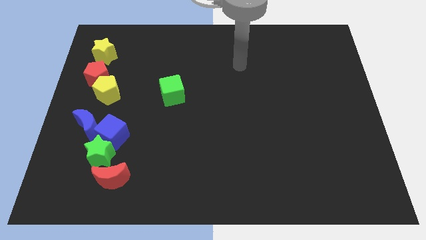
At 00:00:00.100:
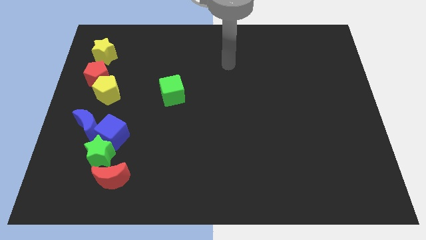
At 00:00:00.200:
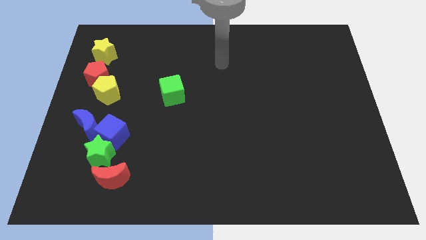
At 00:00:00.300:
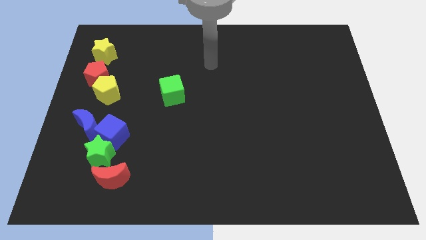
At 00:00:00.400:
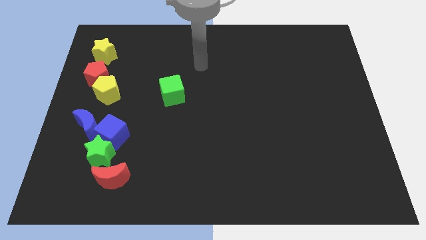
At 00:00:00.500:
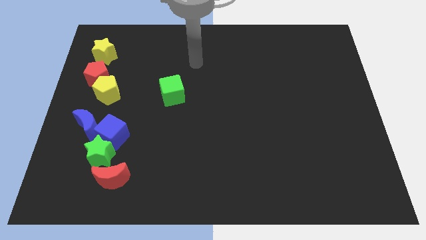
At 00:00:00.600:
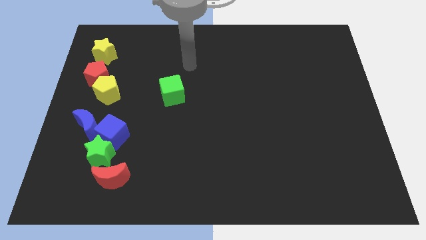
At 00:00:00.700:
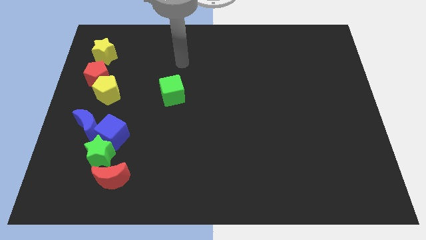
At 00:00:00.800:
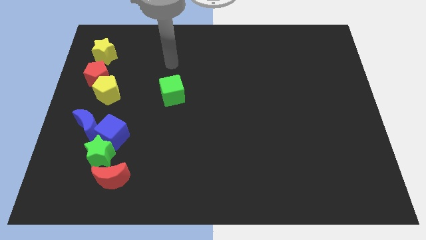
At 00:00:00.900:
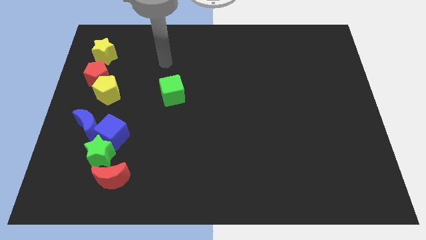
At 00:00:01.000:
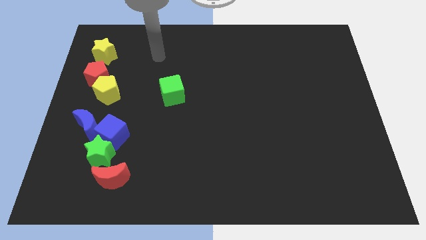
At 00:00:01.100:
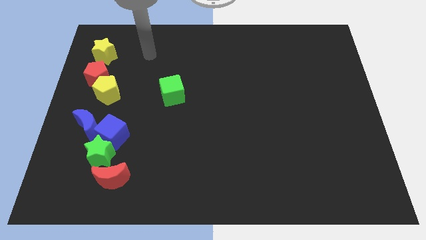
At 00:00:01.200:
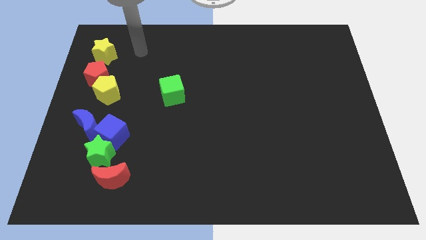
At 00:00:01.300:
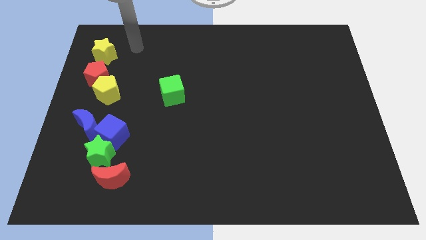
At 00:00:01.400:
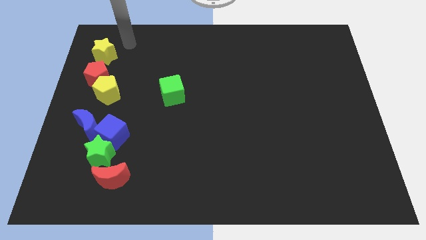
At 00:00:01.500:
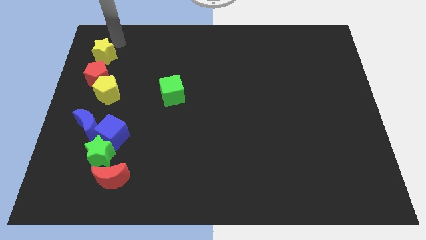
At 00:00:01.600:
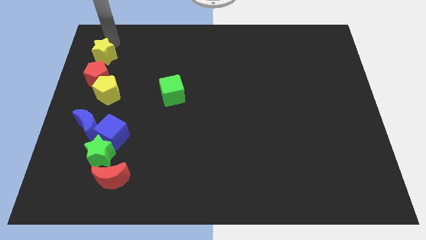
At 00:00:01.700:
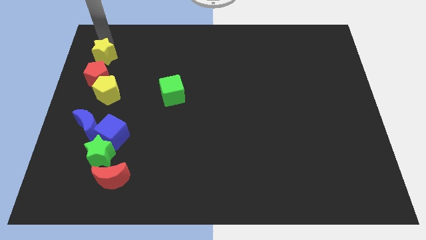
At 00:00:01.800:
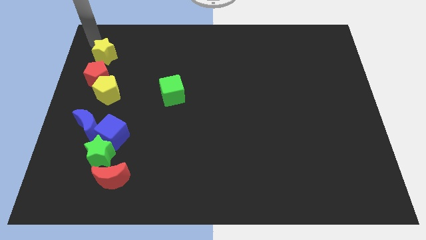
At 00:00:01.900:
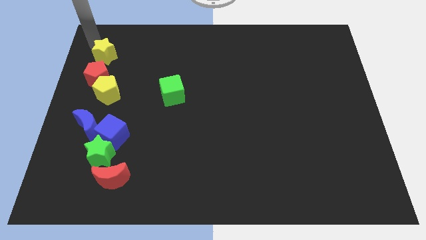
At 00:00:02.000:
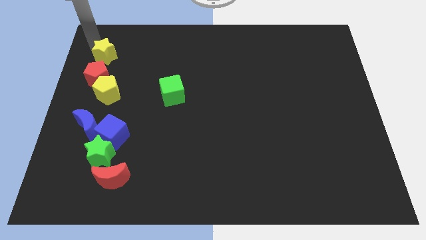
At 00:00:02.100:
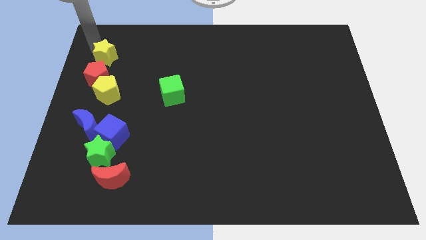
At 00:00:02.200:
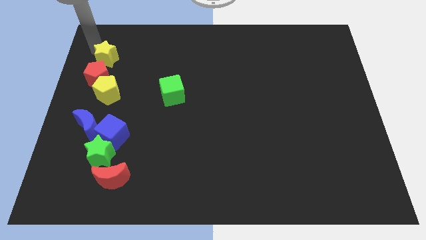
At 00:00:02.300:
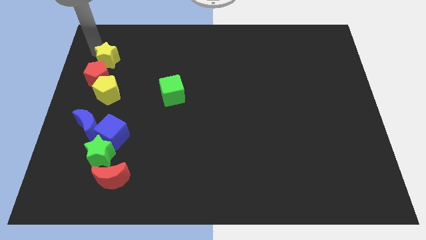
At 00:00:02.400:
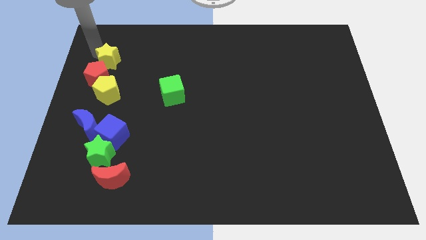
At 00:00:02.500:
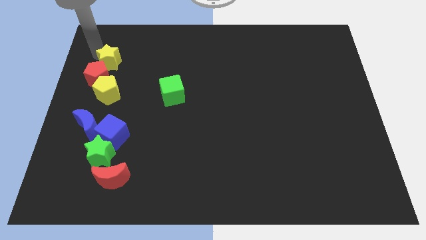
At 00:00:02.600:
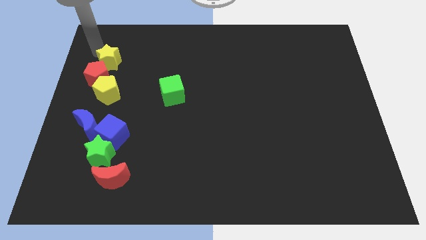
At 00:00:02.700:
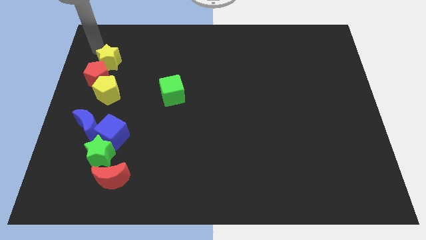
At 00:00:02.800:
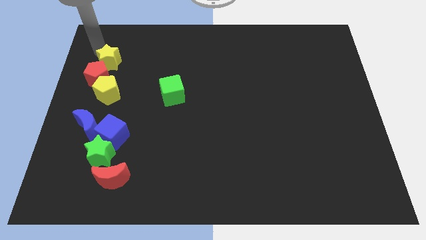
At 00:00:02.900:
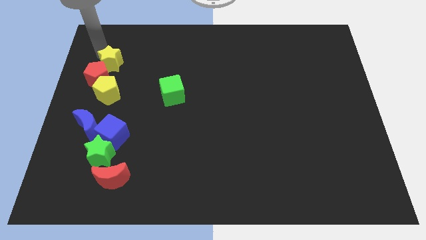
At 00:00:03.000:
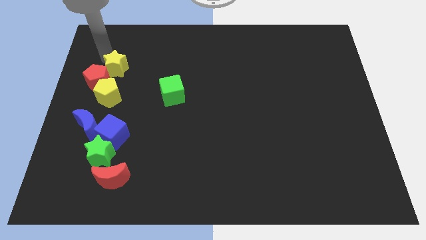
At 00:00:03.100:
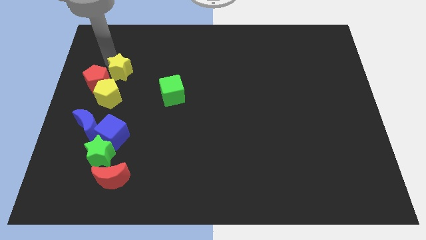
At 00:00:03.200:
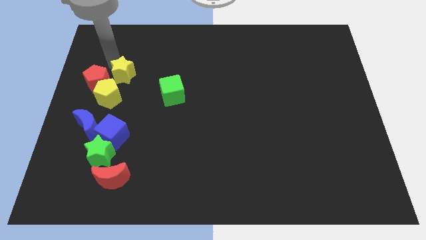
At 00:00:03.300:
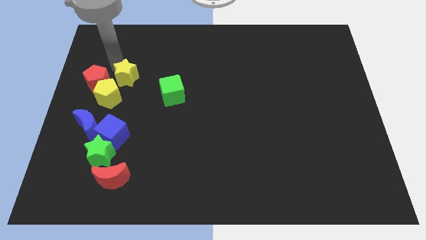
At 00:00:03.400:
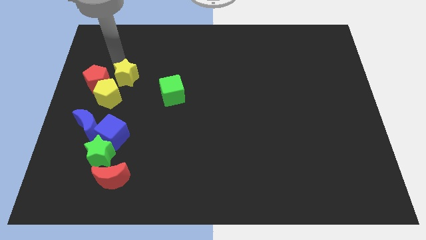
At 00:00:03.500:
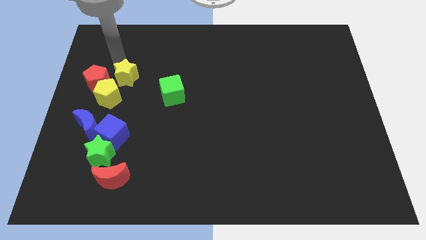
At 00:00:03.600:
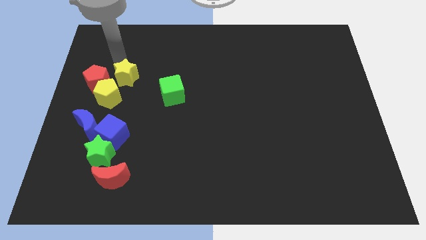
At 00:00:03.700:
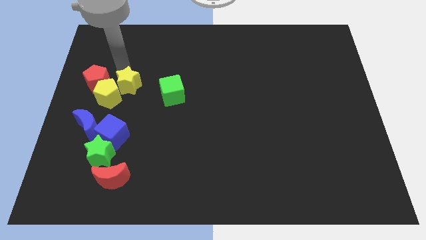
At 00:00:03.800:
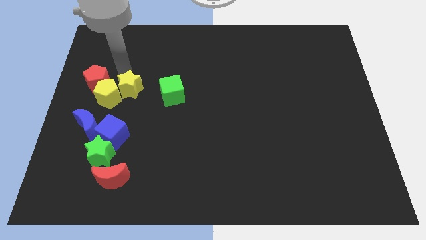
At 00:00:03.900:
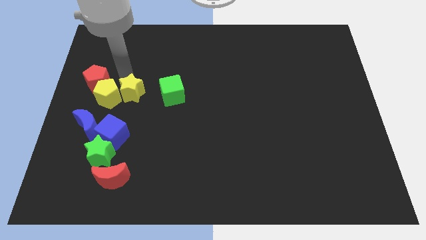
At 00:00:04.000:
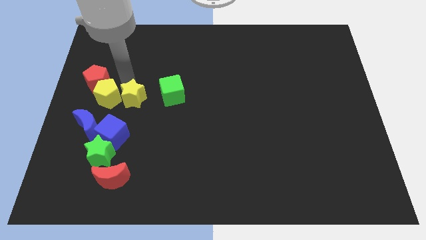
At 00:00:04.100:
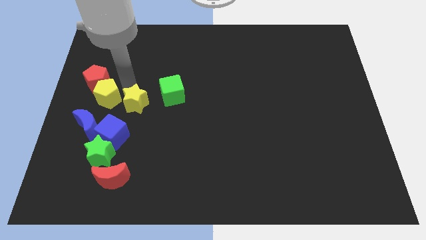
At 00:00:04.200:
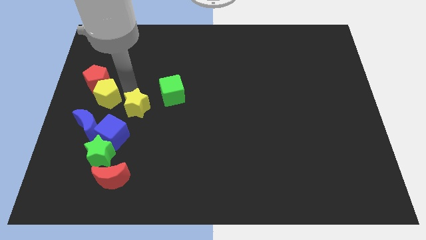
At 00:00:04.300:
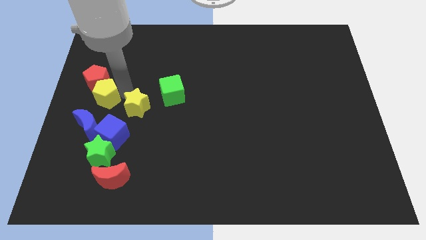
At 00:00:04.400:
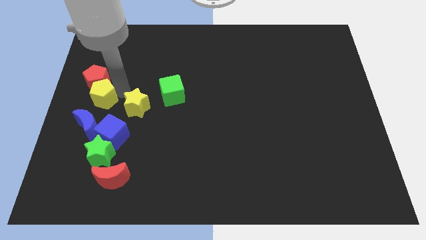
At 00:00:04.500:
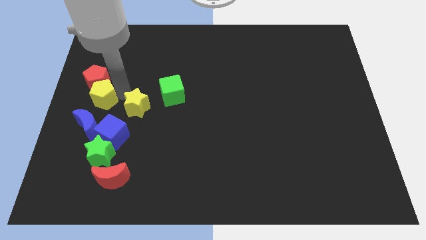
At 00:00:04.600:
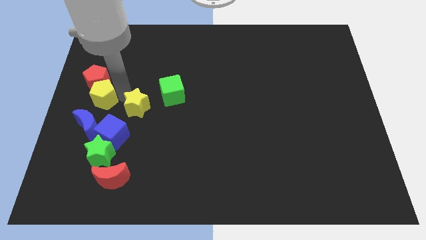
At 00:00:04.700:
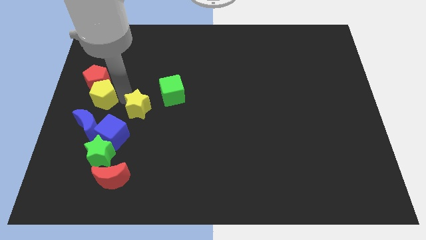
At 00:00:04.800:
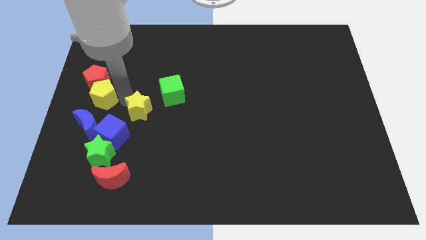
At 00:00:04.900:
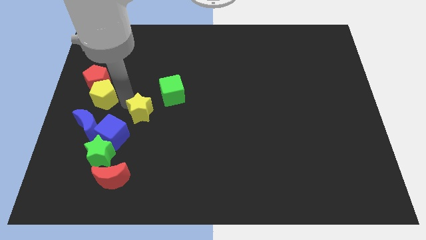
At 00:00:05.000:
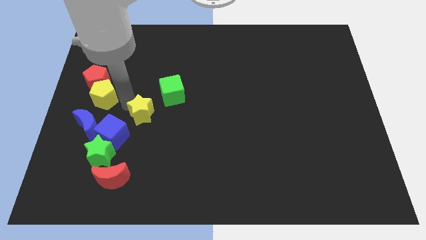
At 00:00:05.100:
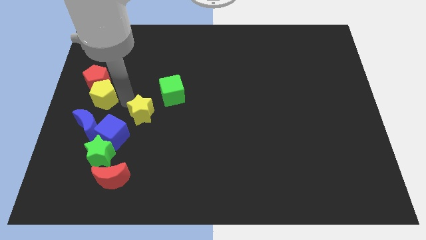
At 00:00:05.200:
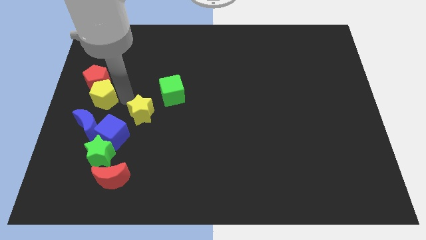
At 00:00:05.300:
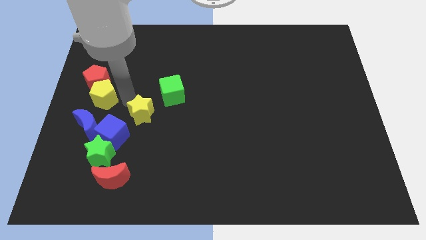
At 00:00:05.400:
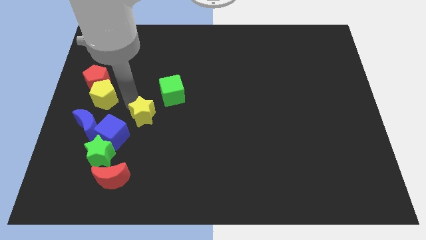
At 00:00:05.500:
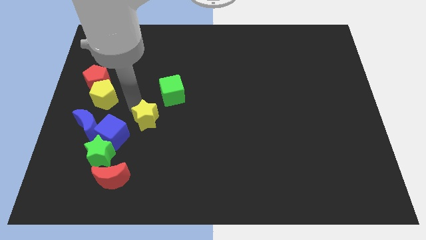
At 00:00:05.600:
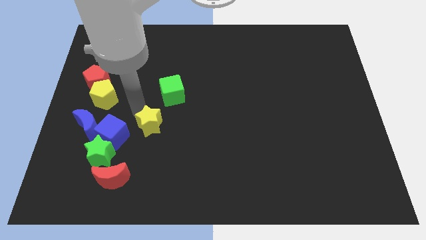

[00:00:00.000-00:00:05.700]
slide the yellow star below the green cube

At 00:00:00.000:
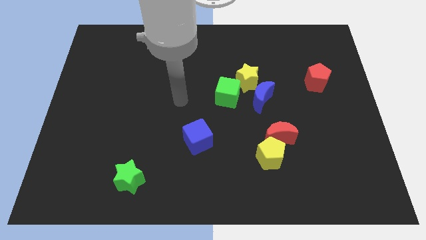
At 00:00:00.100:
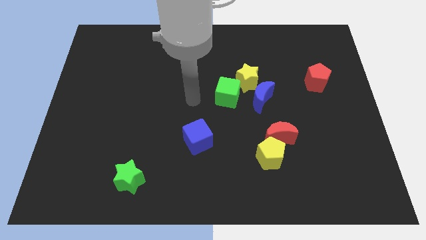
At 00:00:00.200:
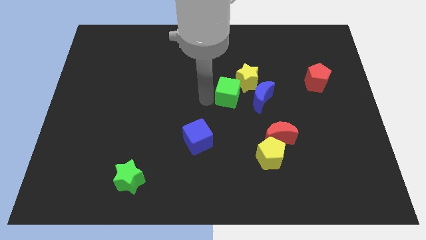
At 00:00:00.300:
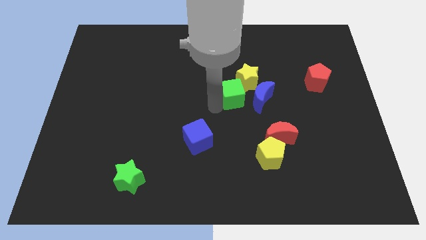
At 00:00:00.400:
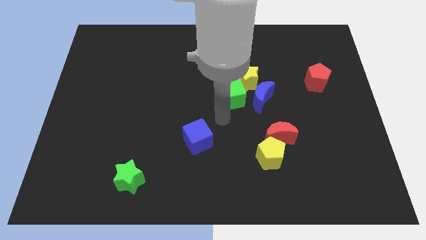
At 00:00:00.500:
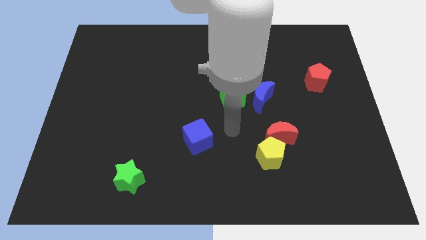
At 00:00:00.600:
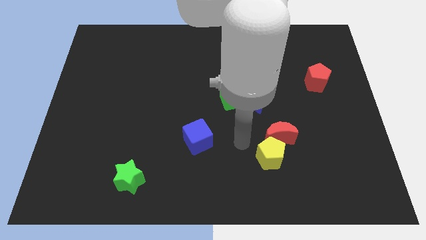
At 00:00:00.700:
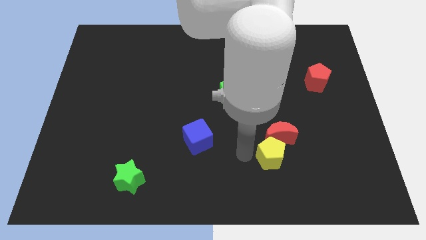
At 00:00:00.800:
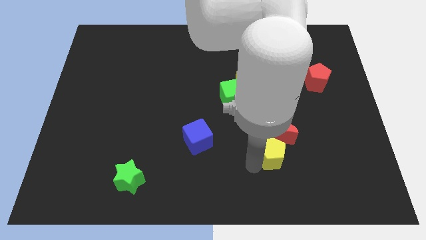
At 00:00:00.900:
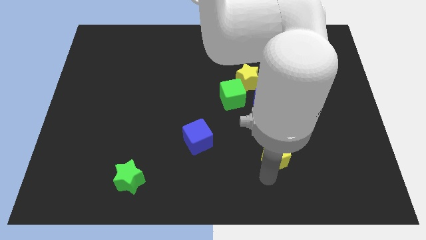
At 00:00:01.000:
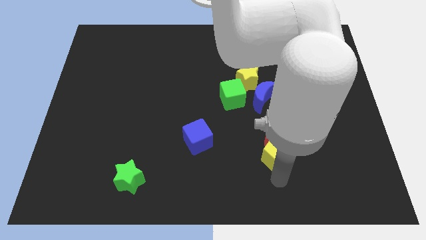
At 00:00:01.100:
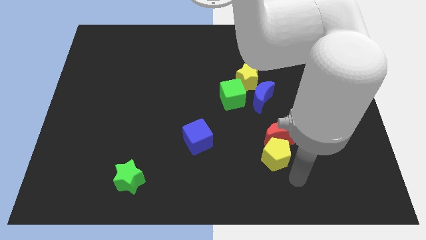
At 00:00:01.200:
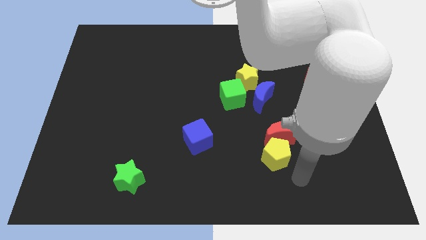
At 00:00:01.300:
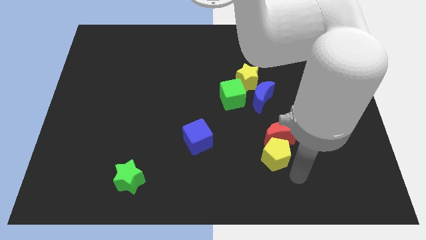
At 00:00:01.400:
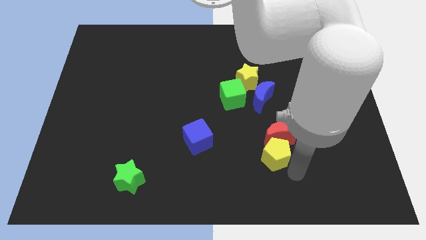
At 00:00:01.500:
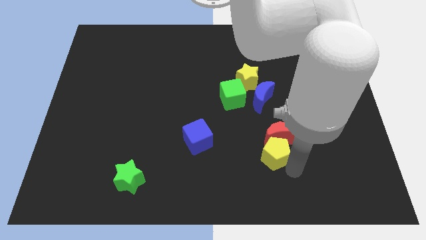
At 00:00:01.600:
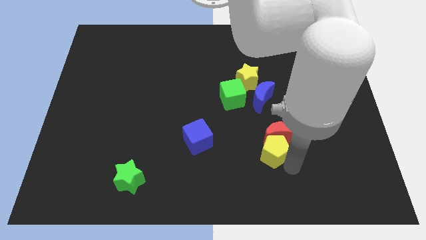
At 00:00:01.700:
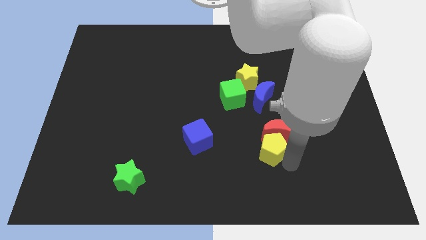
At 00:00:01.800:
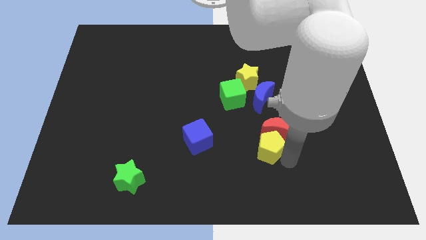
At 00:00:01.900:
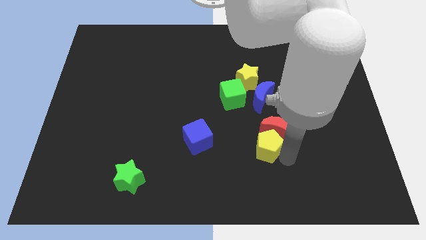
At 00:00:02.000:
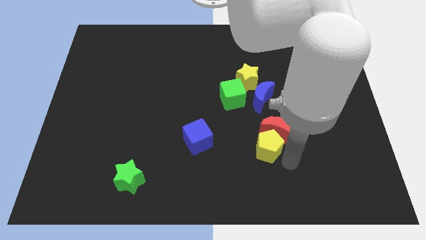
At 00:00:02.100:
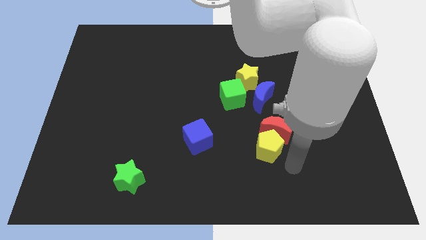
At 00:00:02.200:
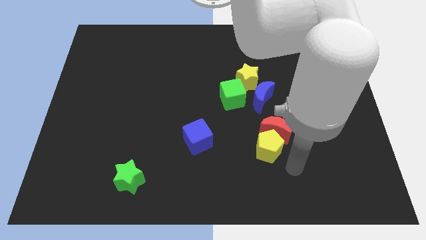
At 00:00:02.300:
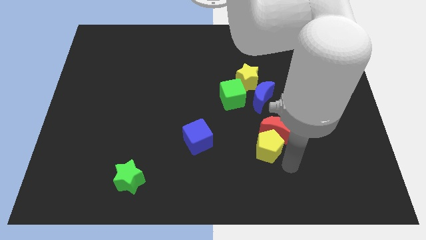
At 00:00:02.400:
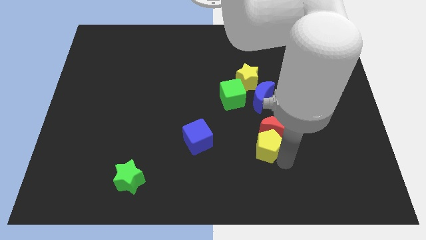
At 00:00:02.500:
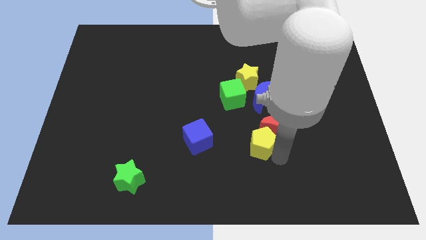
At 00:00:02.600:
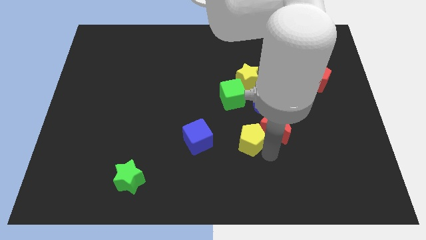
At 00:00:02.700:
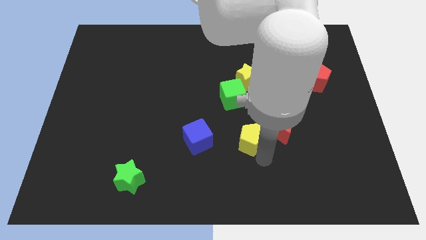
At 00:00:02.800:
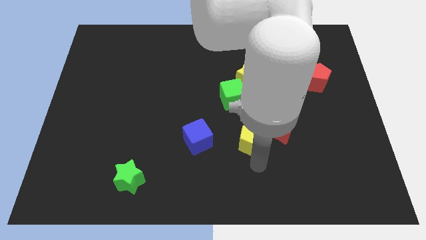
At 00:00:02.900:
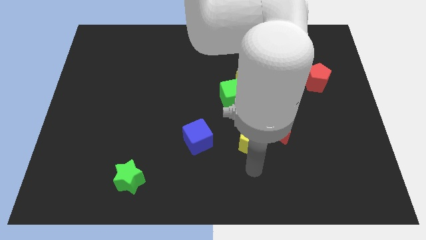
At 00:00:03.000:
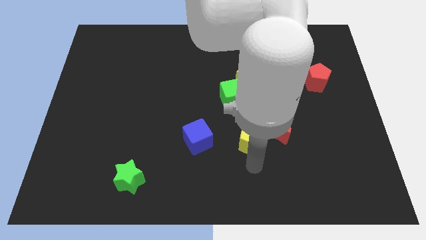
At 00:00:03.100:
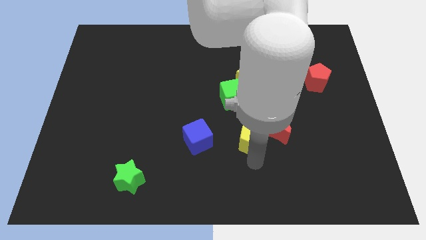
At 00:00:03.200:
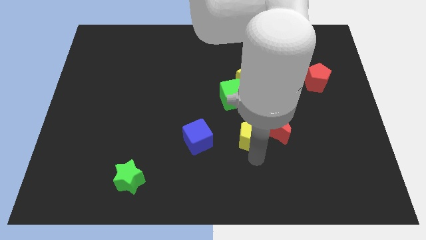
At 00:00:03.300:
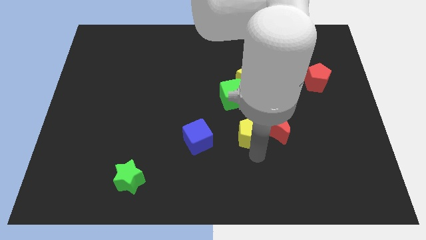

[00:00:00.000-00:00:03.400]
push the yellow pentagon to the top left side of the red moon
